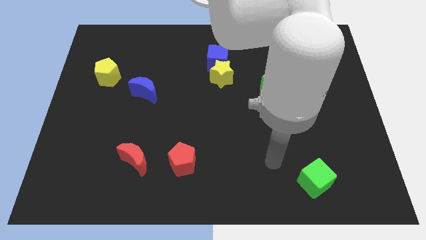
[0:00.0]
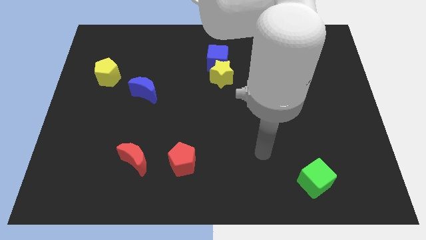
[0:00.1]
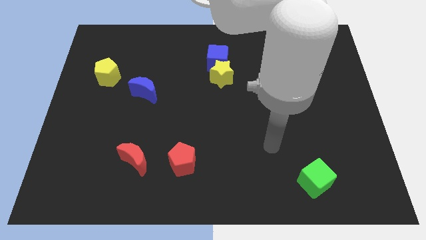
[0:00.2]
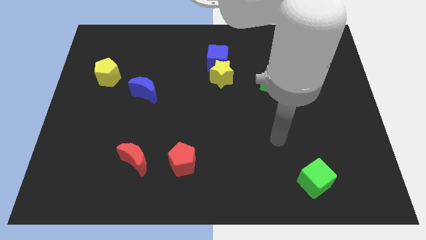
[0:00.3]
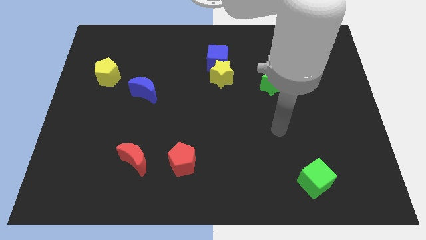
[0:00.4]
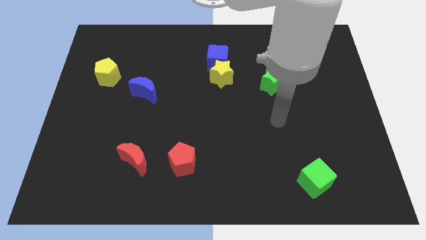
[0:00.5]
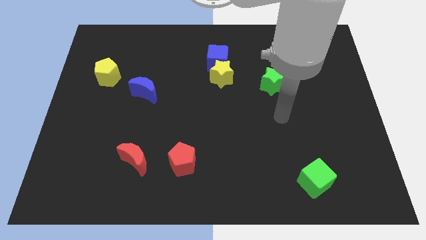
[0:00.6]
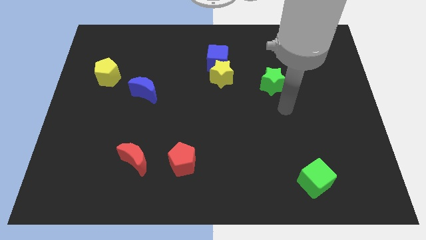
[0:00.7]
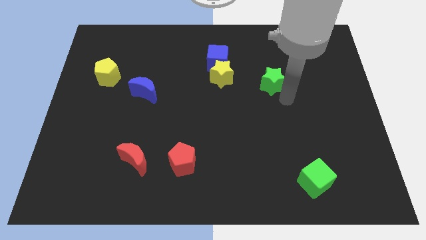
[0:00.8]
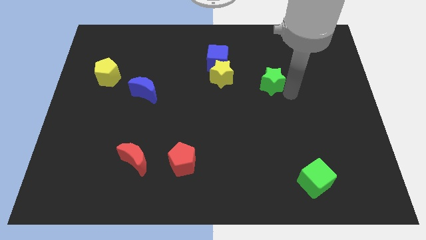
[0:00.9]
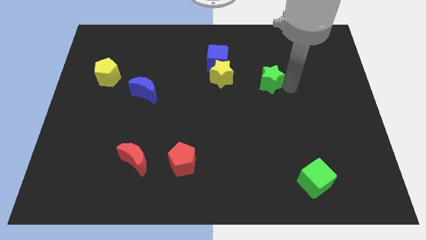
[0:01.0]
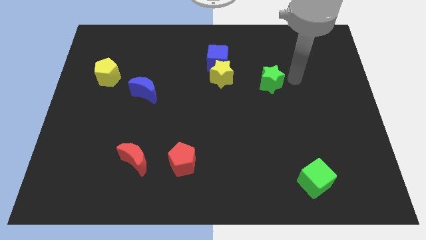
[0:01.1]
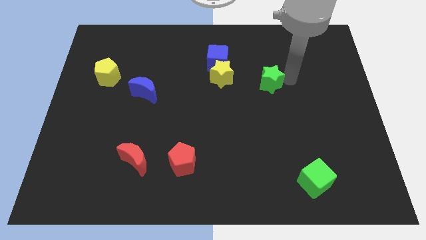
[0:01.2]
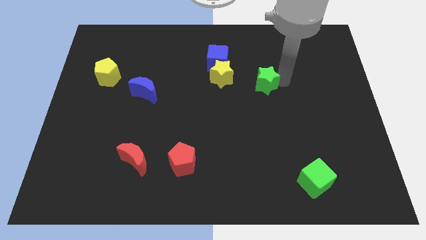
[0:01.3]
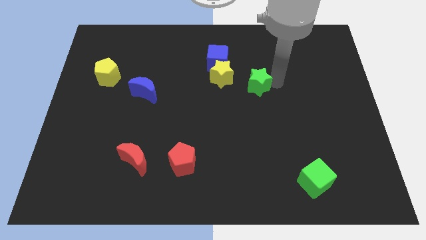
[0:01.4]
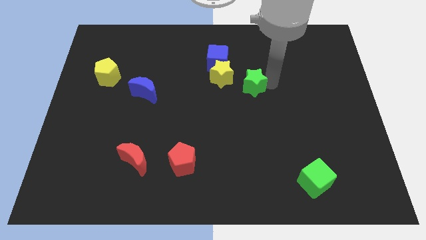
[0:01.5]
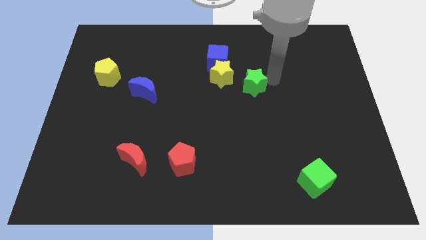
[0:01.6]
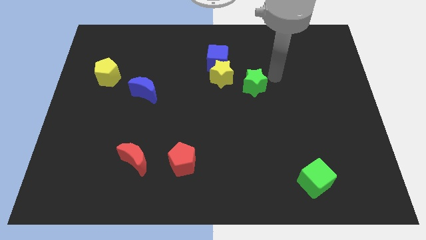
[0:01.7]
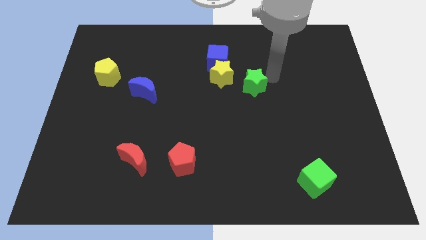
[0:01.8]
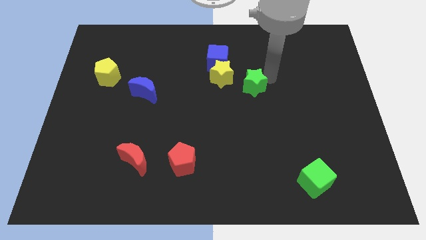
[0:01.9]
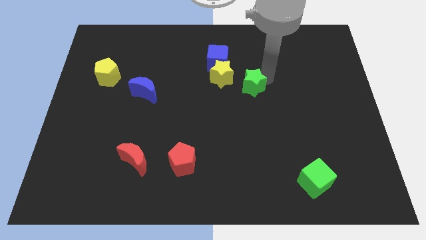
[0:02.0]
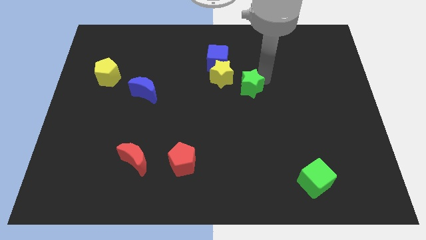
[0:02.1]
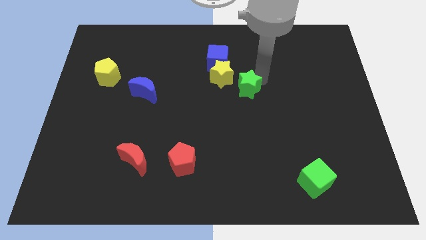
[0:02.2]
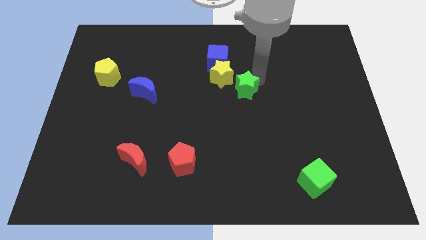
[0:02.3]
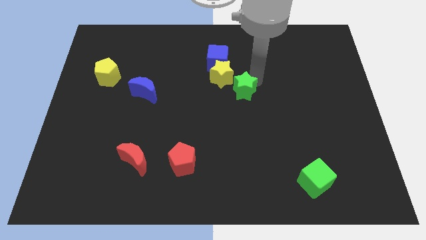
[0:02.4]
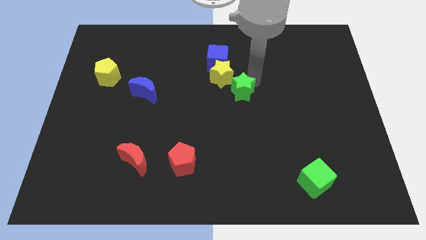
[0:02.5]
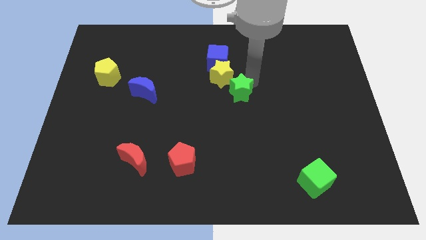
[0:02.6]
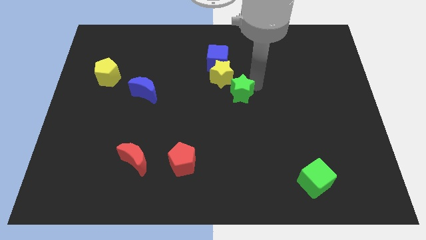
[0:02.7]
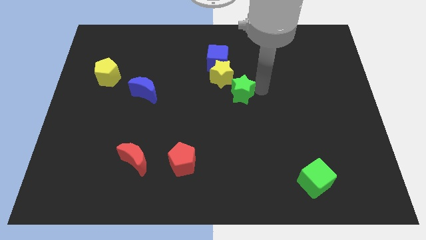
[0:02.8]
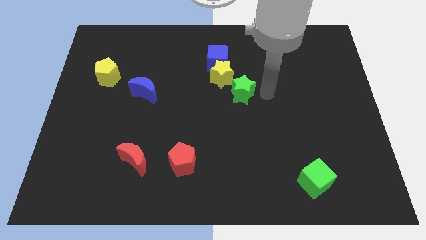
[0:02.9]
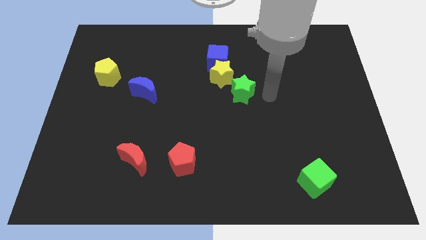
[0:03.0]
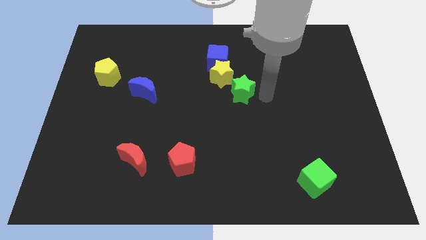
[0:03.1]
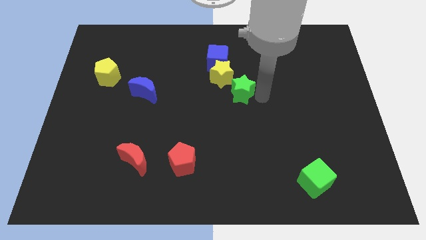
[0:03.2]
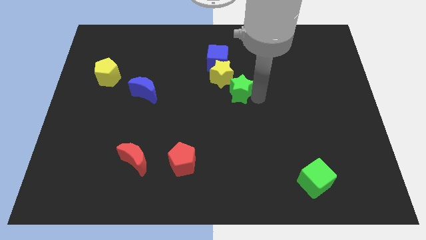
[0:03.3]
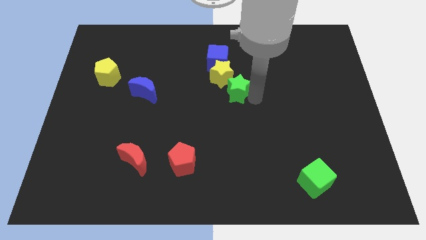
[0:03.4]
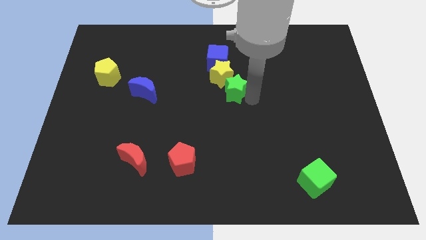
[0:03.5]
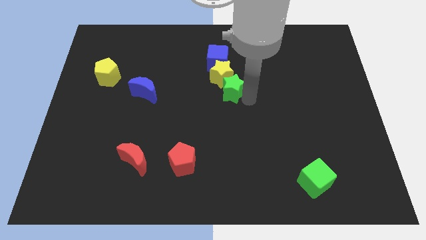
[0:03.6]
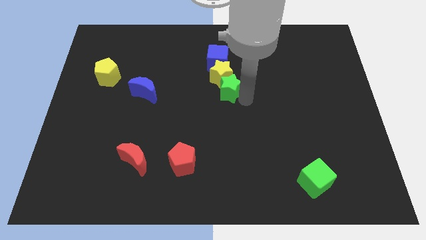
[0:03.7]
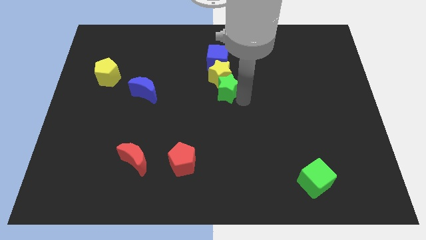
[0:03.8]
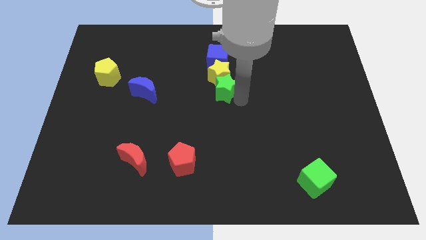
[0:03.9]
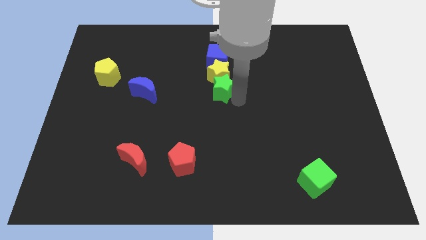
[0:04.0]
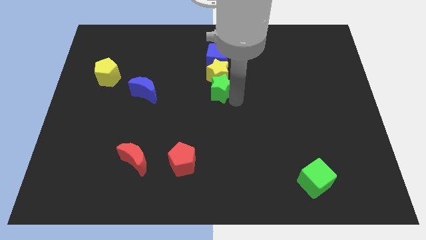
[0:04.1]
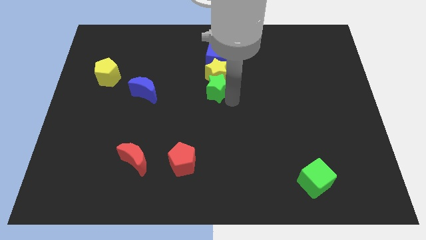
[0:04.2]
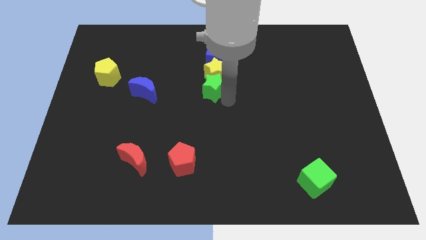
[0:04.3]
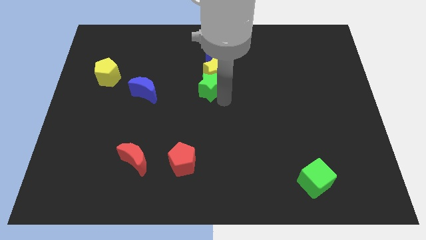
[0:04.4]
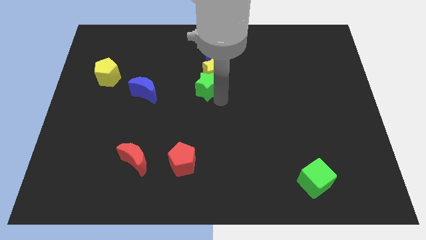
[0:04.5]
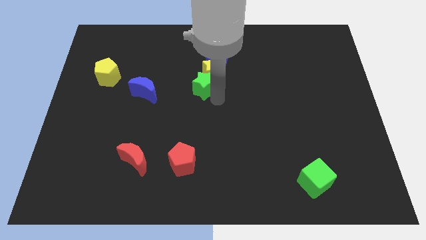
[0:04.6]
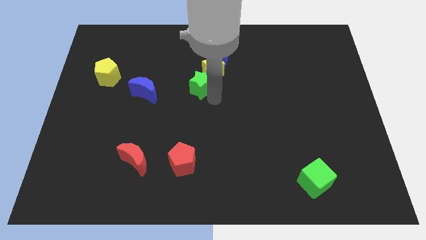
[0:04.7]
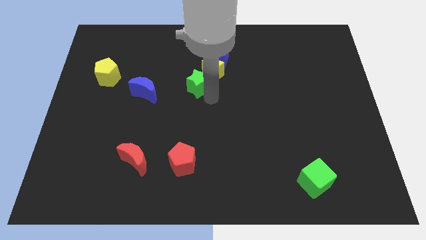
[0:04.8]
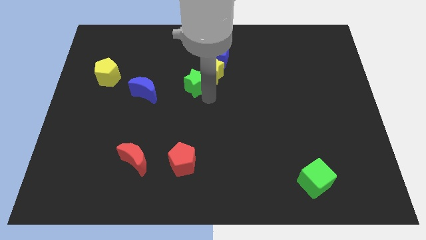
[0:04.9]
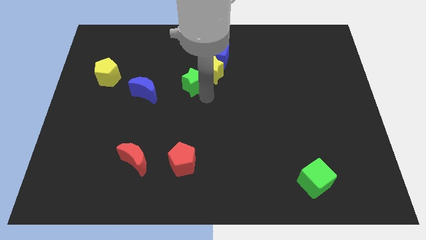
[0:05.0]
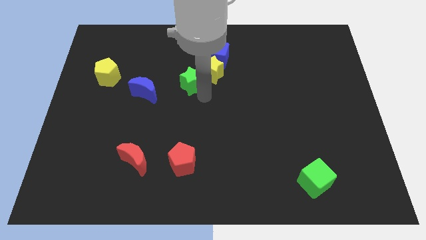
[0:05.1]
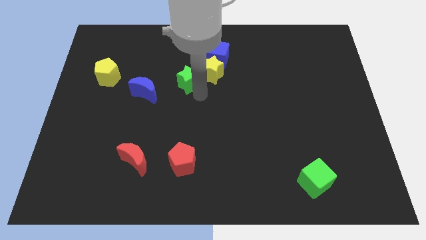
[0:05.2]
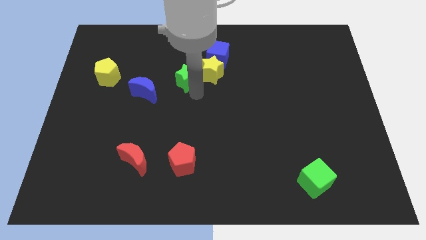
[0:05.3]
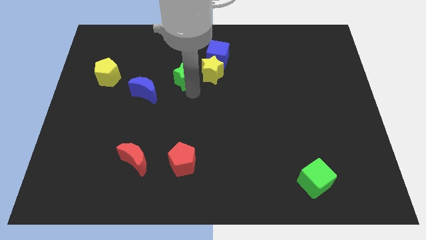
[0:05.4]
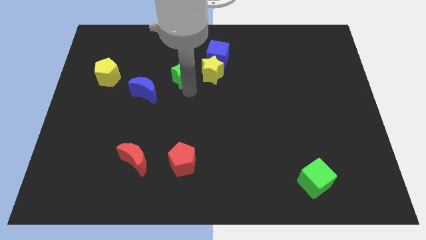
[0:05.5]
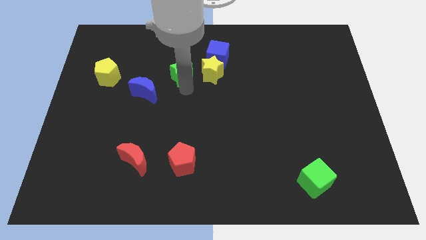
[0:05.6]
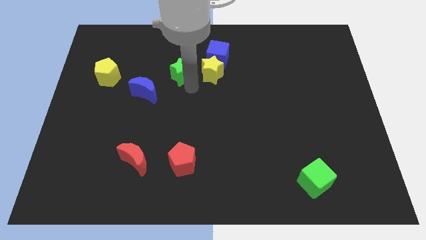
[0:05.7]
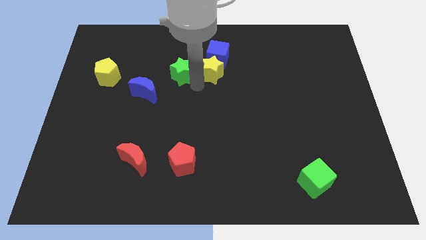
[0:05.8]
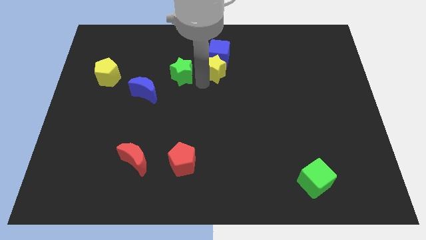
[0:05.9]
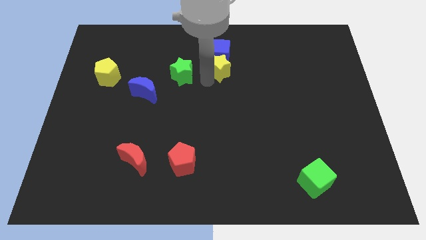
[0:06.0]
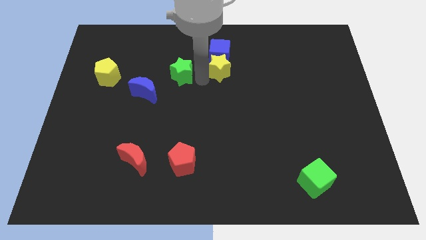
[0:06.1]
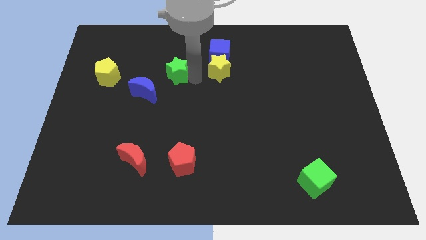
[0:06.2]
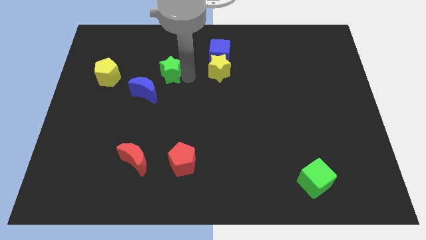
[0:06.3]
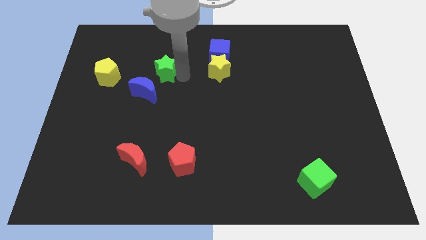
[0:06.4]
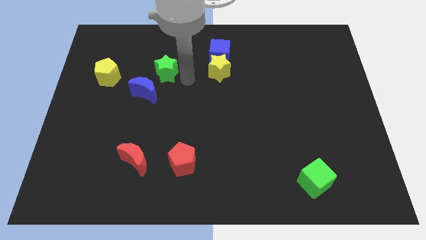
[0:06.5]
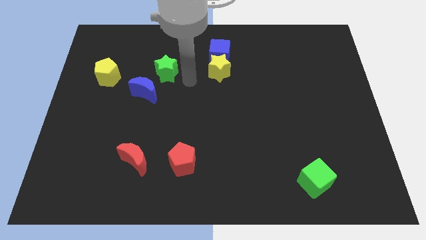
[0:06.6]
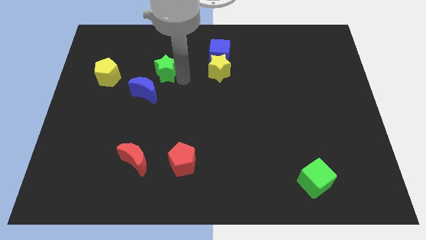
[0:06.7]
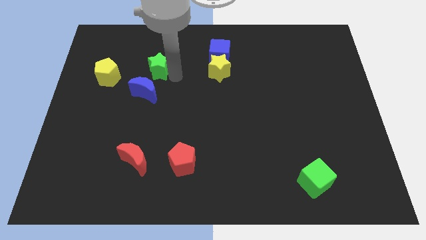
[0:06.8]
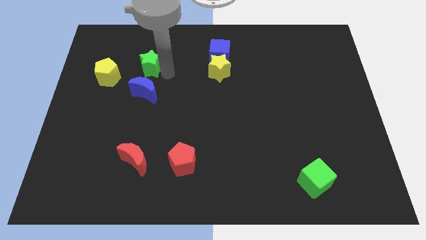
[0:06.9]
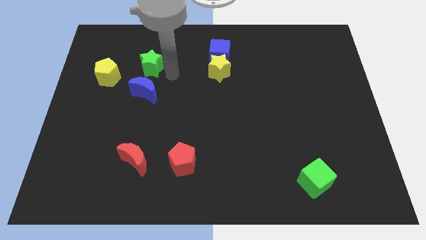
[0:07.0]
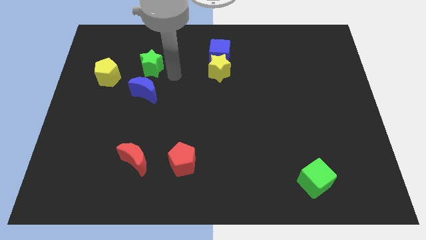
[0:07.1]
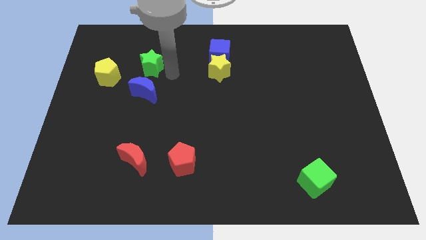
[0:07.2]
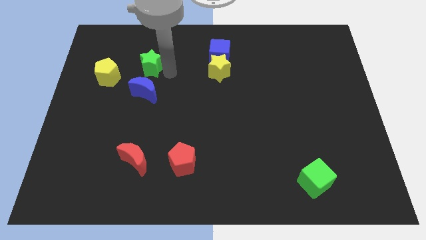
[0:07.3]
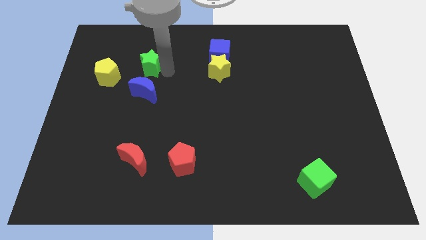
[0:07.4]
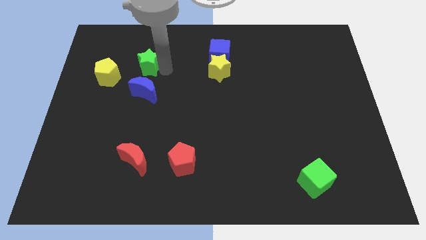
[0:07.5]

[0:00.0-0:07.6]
move the green star to the top right of the yellow pentagon
